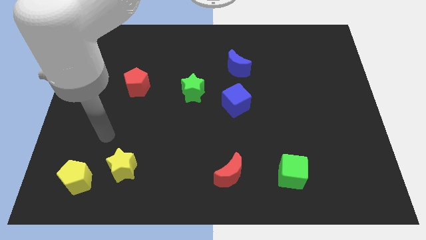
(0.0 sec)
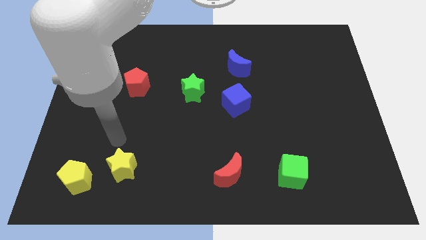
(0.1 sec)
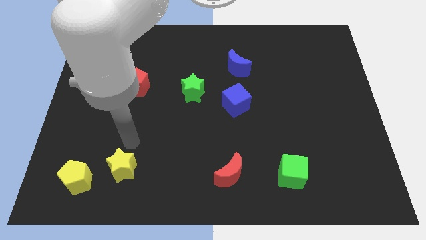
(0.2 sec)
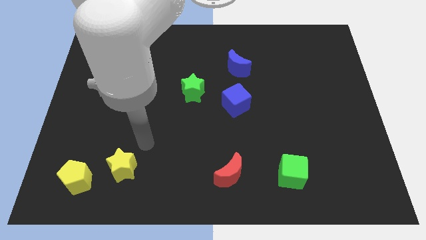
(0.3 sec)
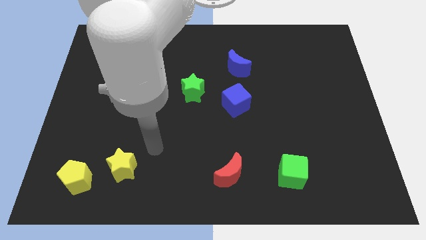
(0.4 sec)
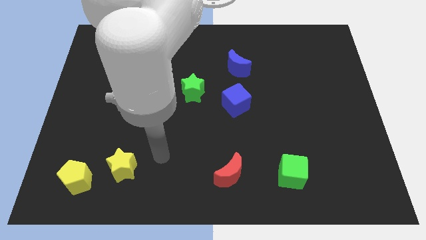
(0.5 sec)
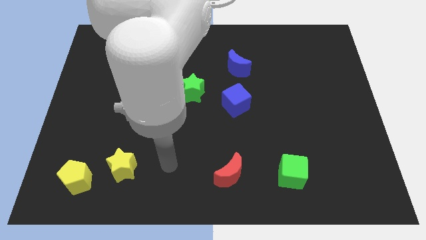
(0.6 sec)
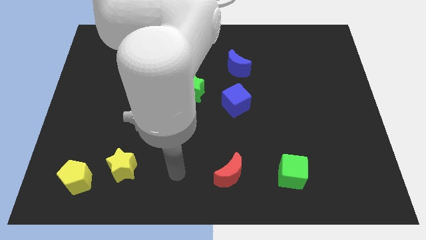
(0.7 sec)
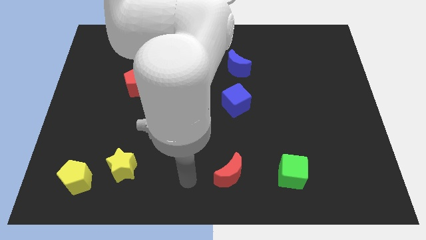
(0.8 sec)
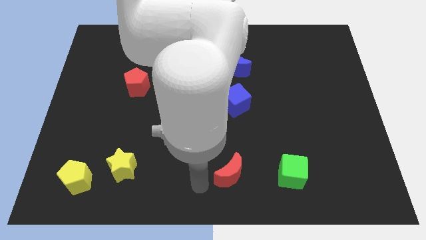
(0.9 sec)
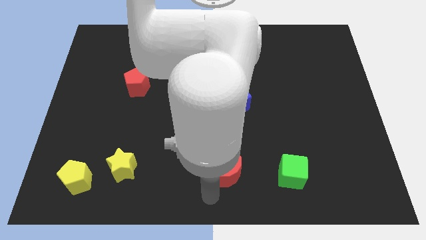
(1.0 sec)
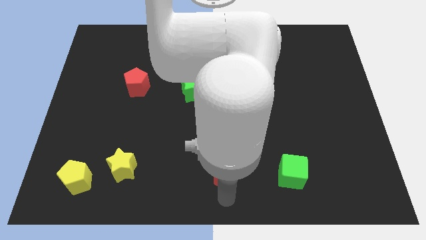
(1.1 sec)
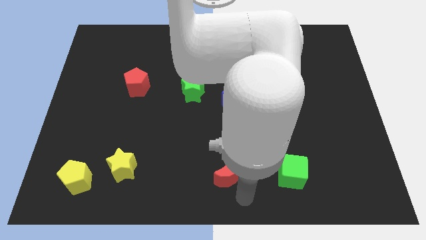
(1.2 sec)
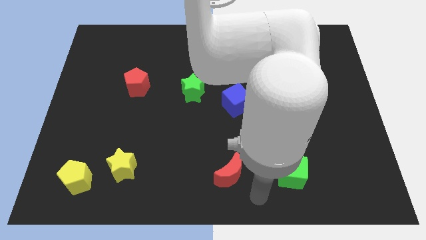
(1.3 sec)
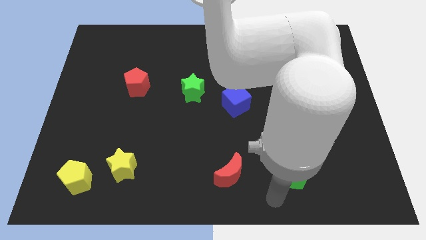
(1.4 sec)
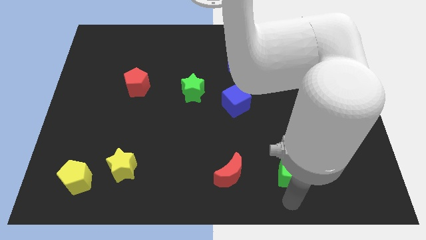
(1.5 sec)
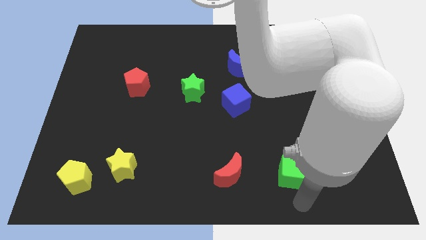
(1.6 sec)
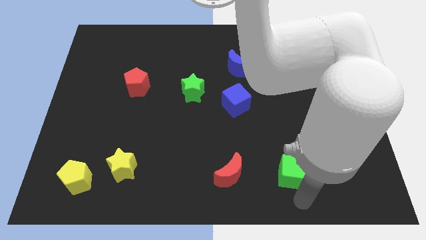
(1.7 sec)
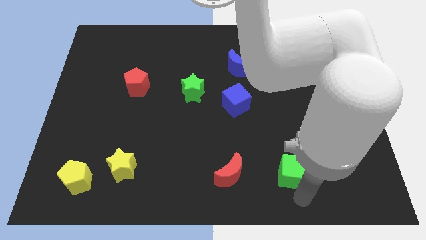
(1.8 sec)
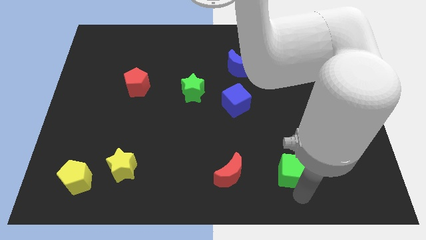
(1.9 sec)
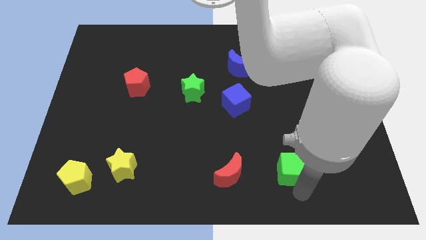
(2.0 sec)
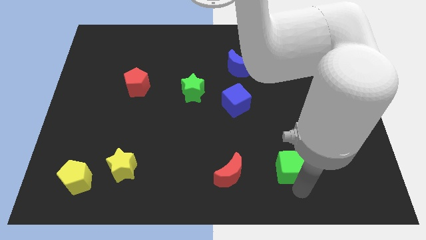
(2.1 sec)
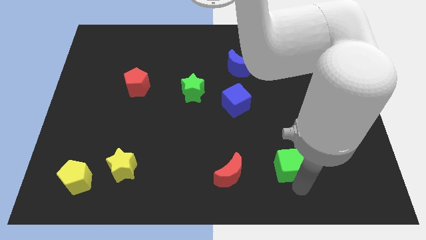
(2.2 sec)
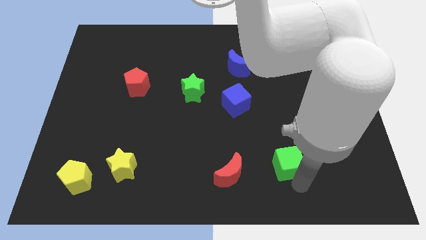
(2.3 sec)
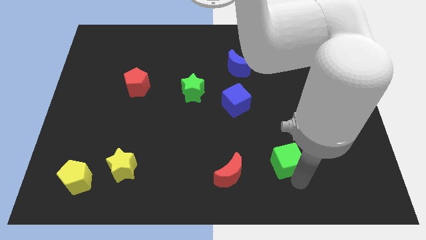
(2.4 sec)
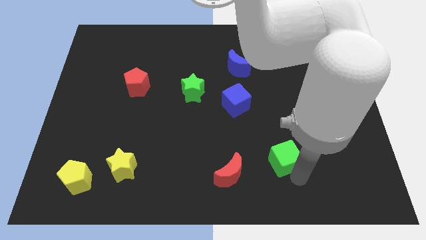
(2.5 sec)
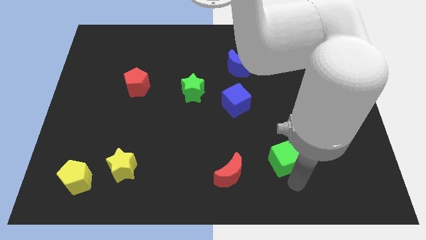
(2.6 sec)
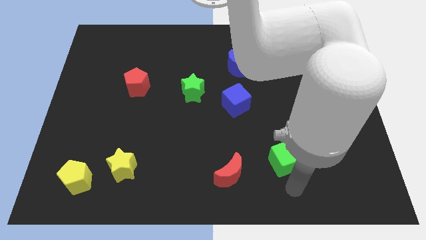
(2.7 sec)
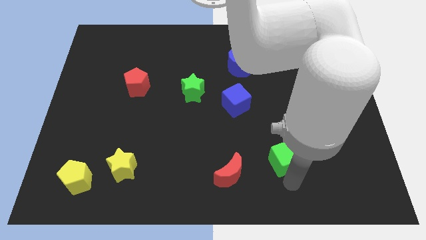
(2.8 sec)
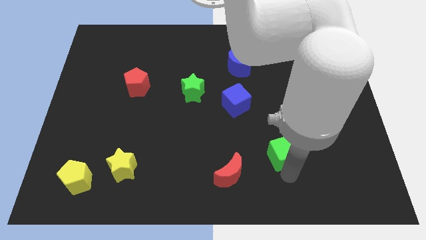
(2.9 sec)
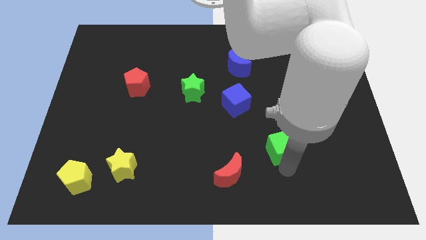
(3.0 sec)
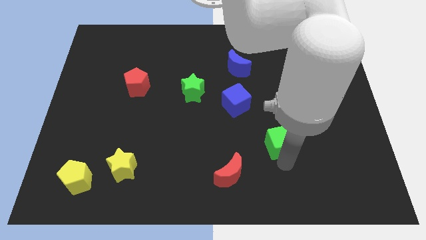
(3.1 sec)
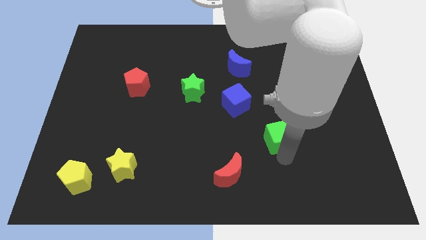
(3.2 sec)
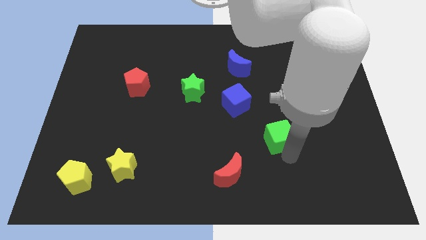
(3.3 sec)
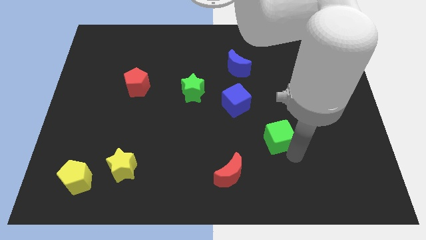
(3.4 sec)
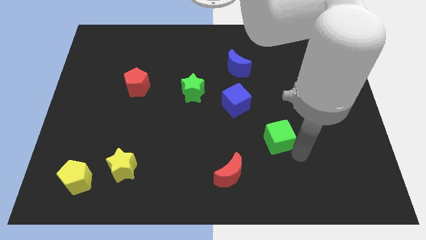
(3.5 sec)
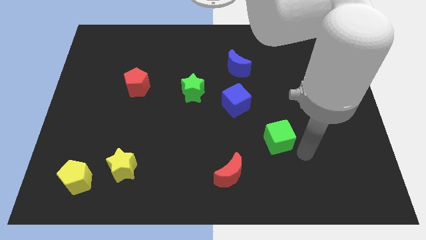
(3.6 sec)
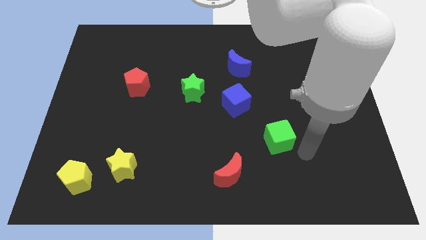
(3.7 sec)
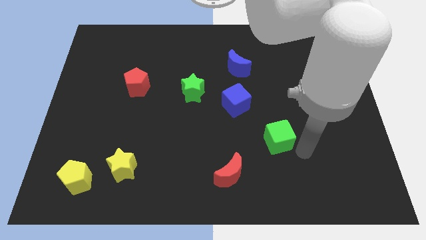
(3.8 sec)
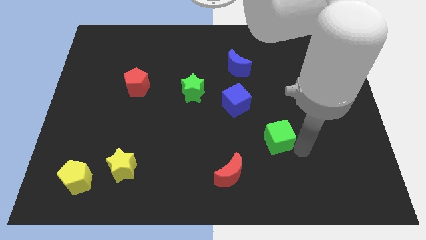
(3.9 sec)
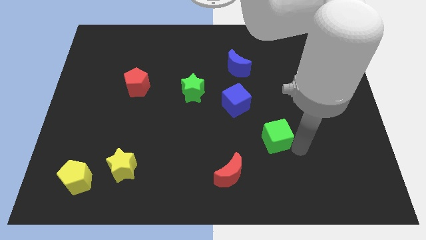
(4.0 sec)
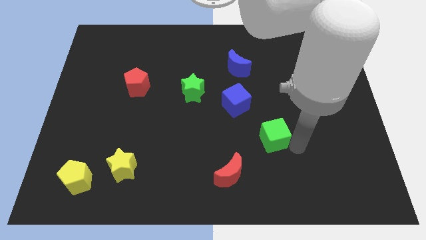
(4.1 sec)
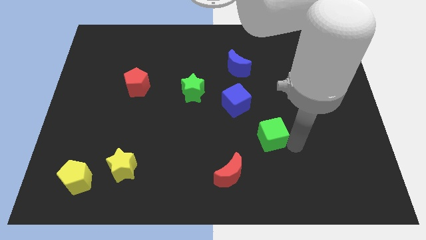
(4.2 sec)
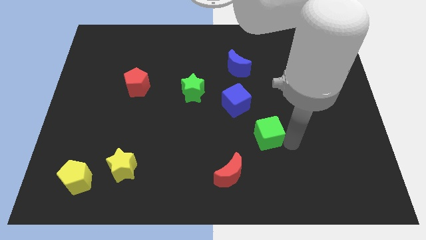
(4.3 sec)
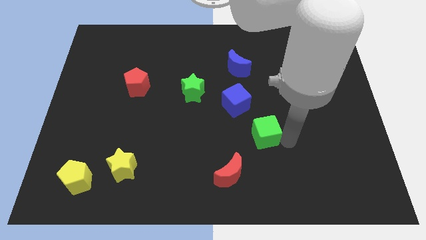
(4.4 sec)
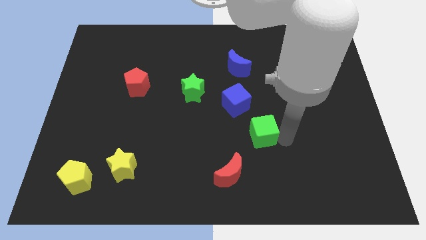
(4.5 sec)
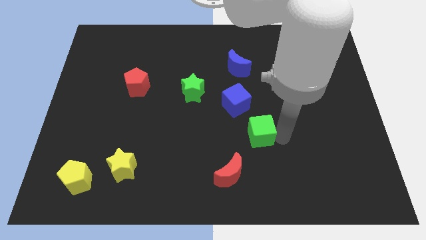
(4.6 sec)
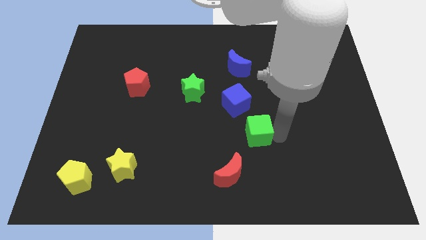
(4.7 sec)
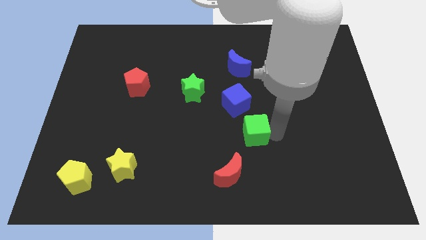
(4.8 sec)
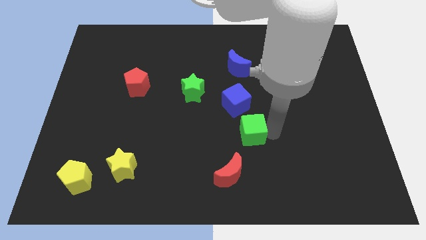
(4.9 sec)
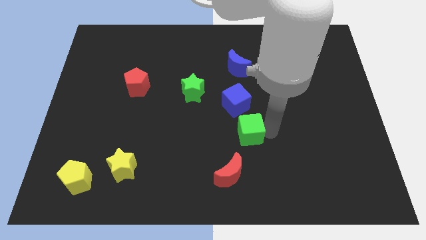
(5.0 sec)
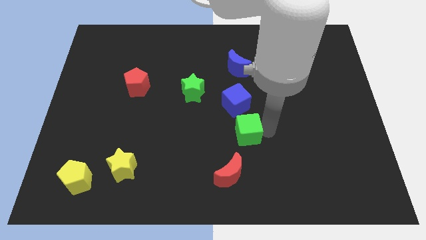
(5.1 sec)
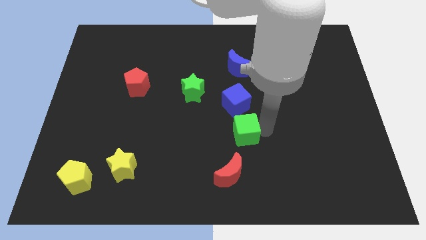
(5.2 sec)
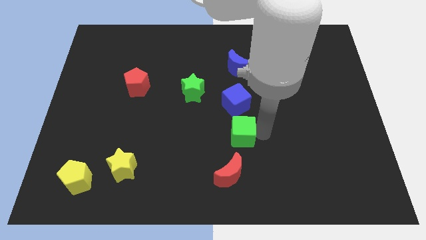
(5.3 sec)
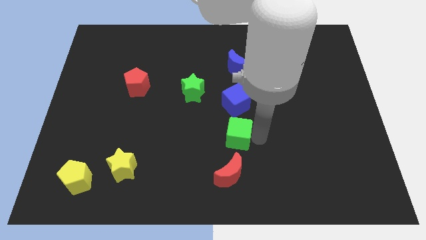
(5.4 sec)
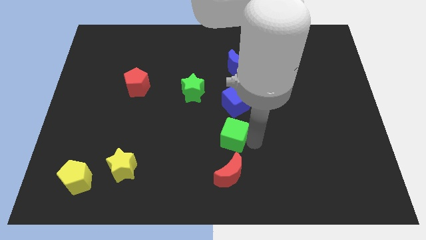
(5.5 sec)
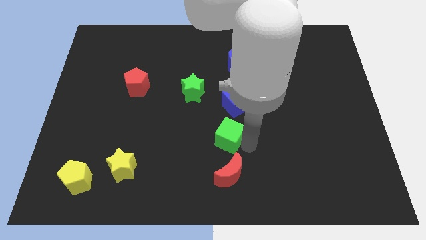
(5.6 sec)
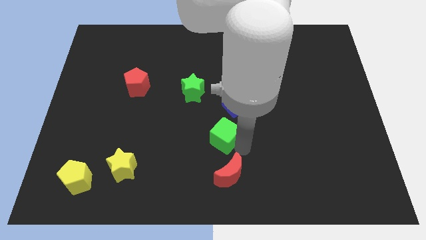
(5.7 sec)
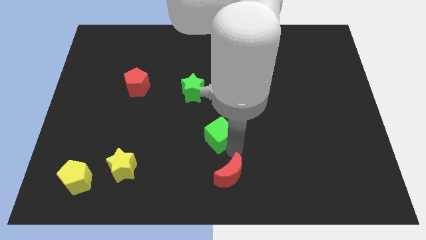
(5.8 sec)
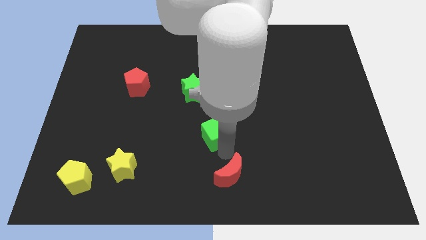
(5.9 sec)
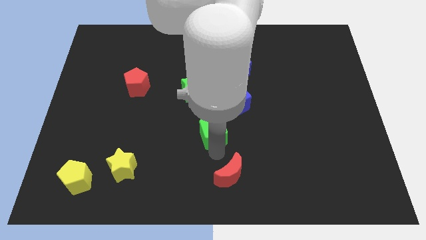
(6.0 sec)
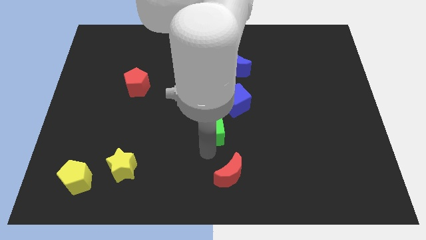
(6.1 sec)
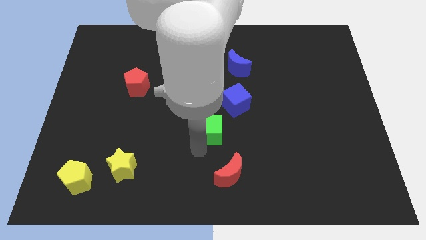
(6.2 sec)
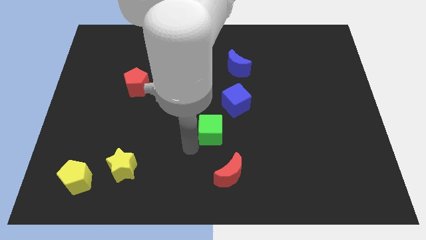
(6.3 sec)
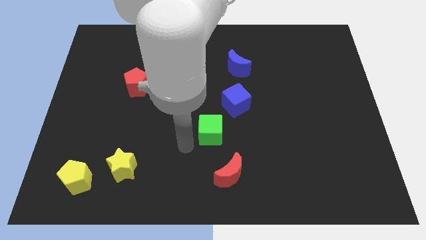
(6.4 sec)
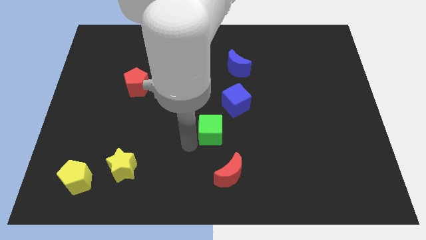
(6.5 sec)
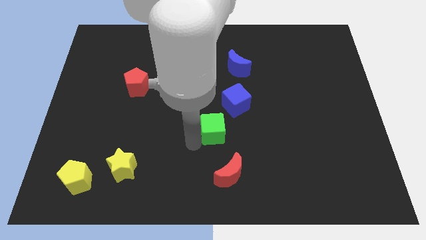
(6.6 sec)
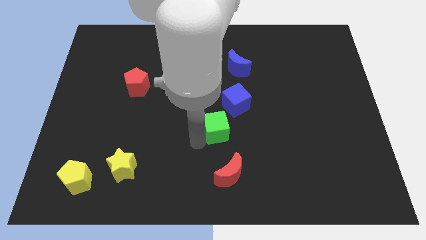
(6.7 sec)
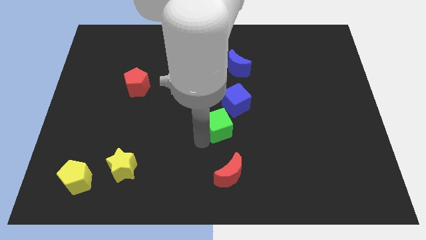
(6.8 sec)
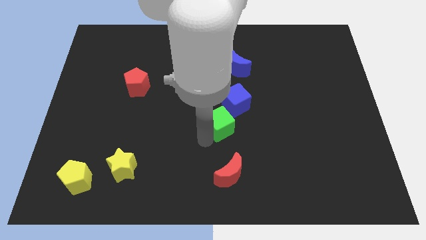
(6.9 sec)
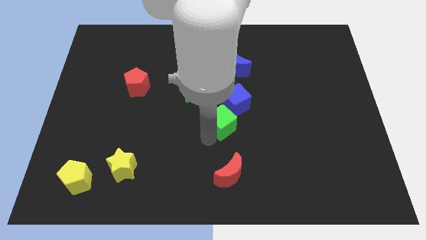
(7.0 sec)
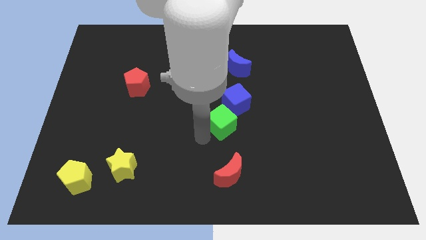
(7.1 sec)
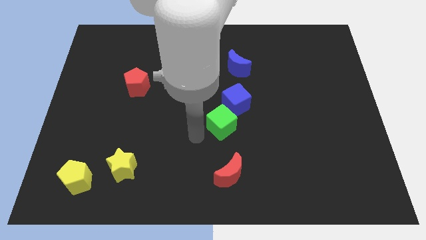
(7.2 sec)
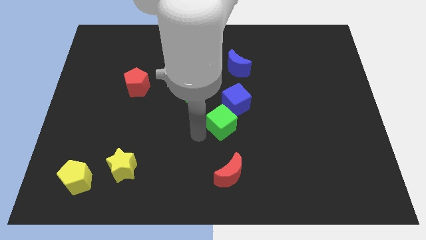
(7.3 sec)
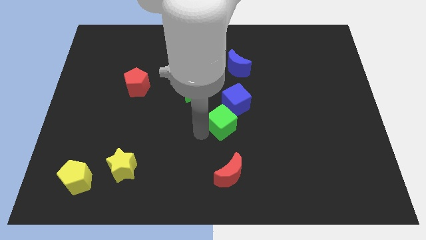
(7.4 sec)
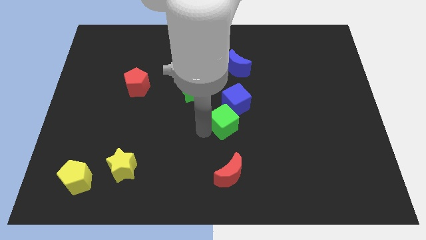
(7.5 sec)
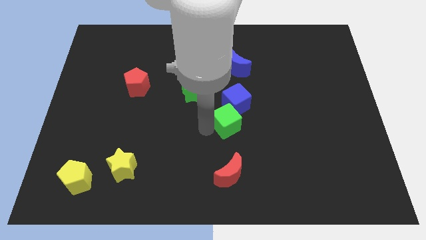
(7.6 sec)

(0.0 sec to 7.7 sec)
push the green cube close to the blue cube
